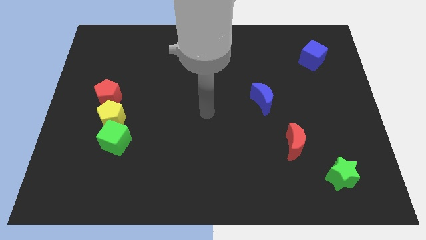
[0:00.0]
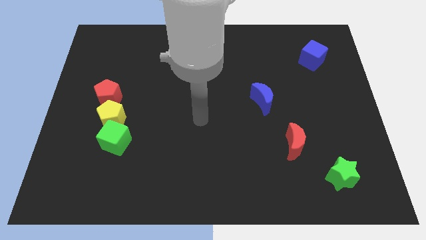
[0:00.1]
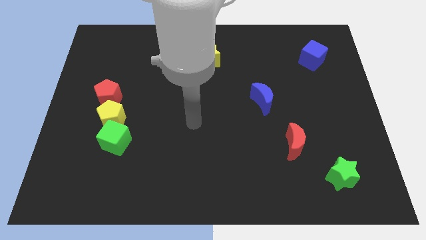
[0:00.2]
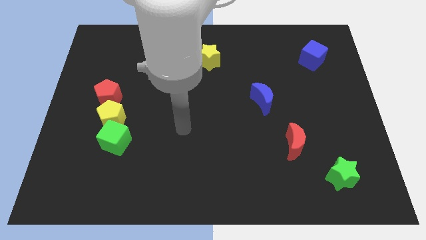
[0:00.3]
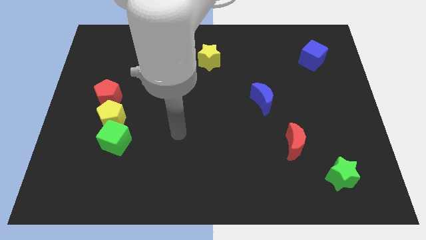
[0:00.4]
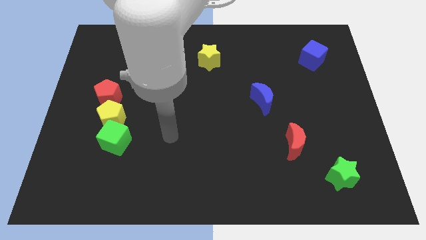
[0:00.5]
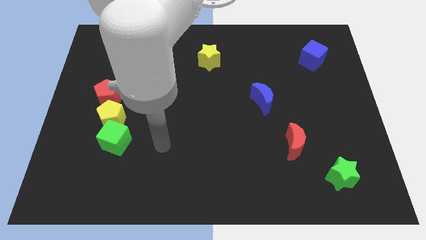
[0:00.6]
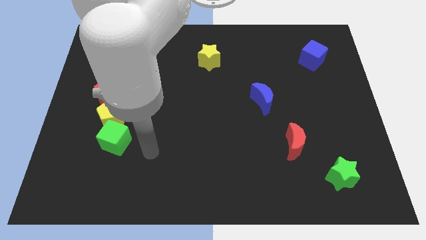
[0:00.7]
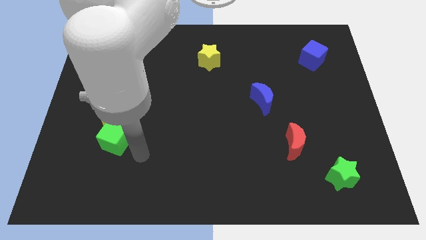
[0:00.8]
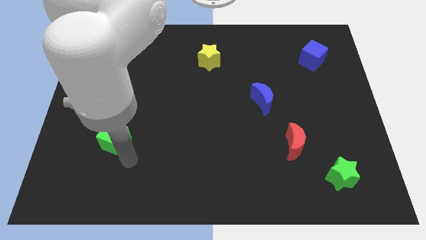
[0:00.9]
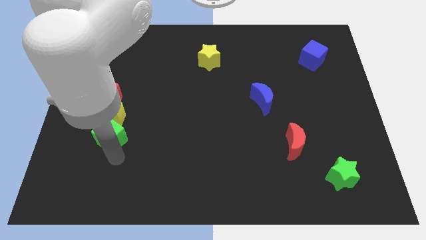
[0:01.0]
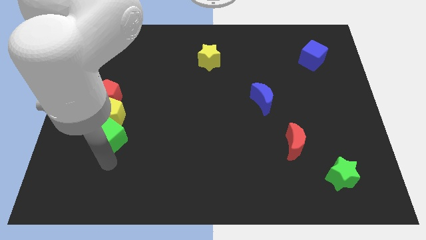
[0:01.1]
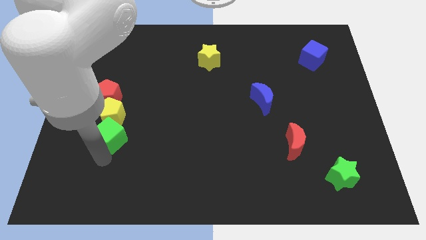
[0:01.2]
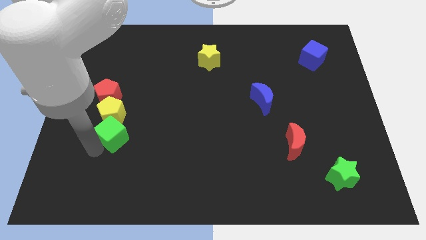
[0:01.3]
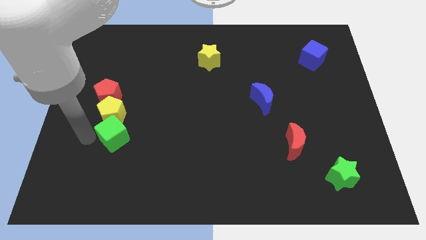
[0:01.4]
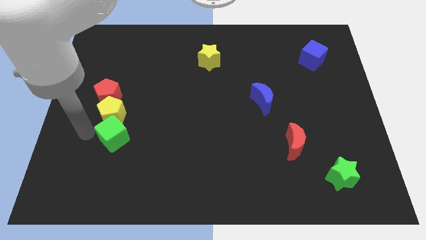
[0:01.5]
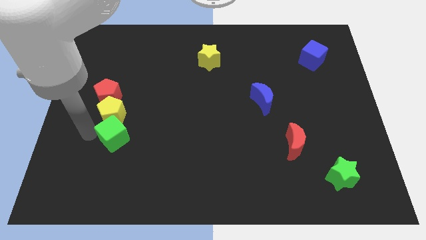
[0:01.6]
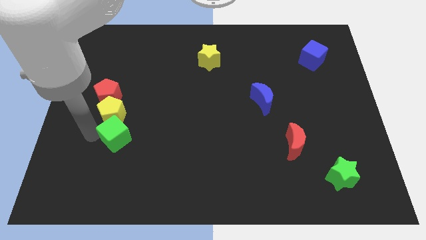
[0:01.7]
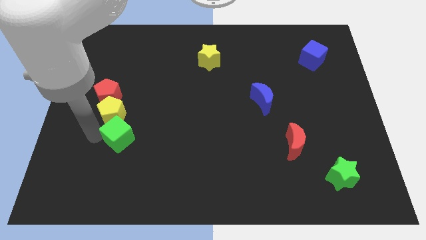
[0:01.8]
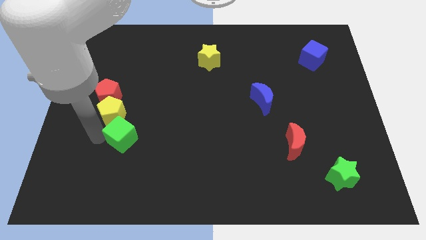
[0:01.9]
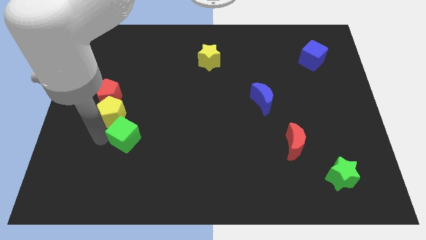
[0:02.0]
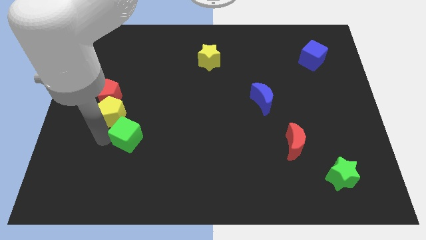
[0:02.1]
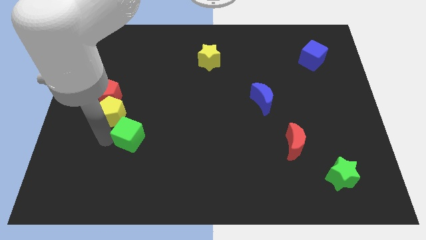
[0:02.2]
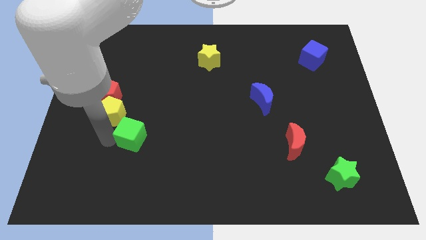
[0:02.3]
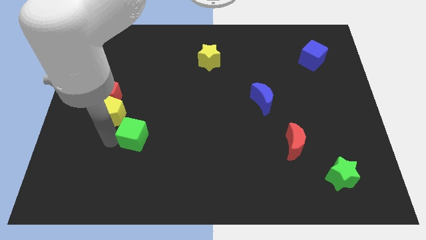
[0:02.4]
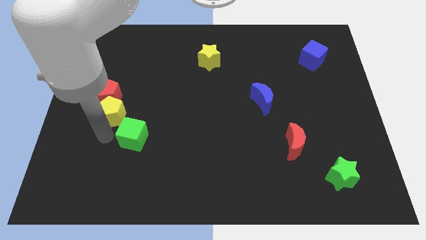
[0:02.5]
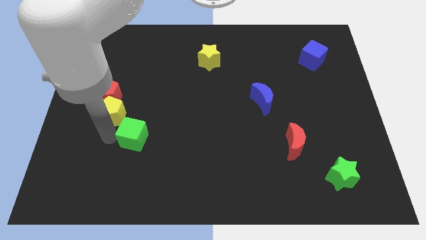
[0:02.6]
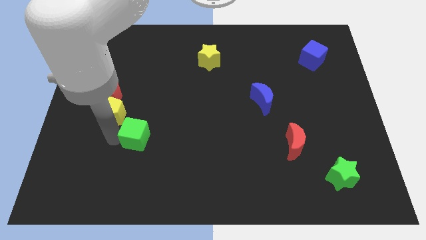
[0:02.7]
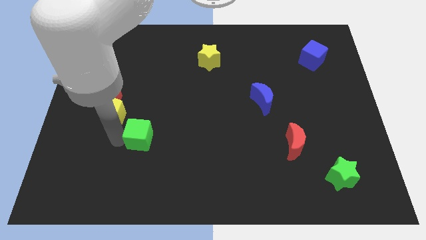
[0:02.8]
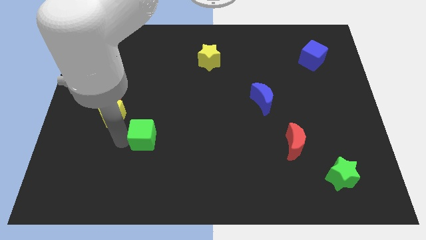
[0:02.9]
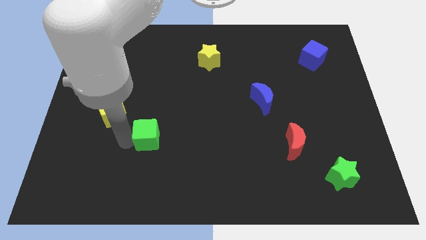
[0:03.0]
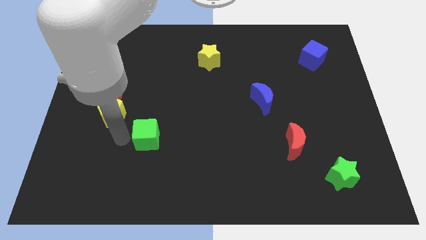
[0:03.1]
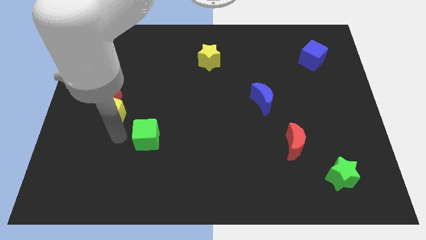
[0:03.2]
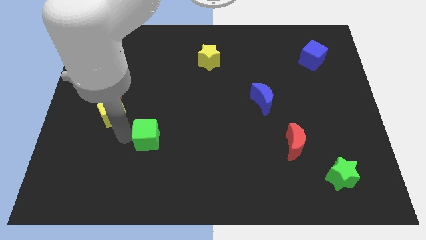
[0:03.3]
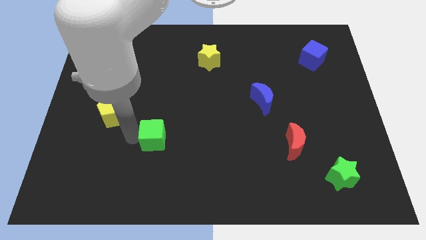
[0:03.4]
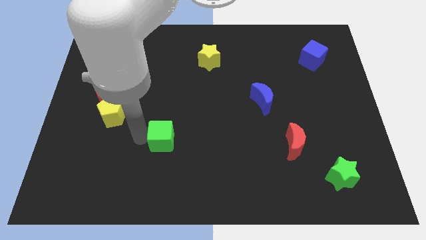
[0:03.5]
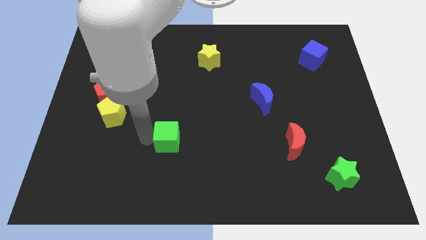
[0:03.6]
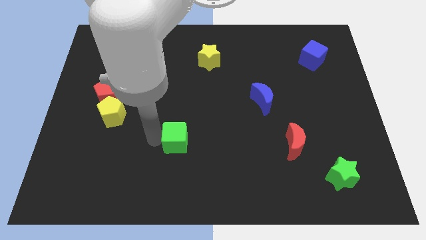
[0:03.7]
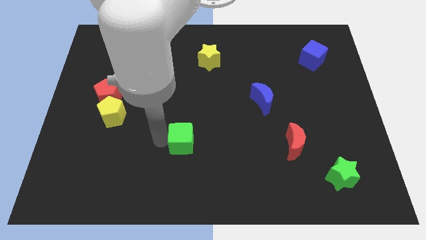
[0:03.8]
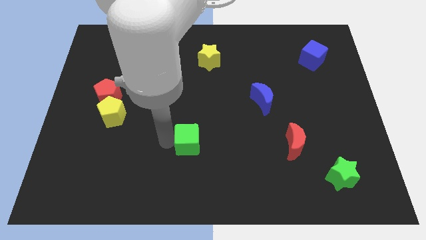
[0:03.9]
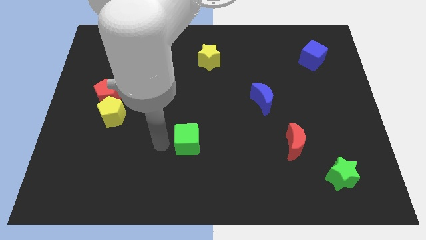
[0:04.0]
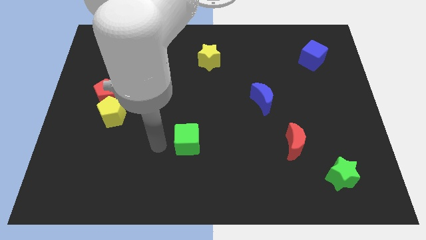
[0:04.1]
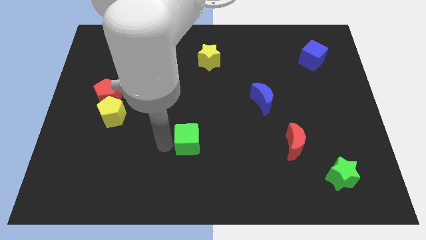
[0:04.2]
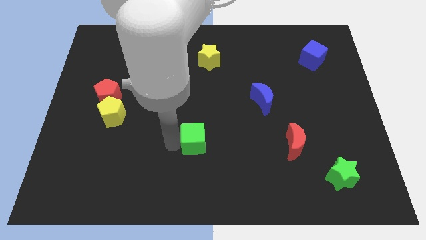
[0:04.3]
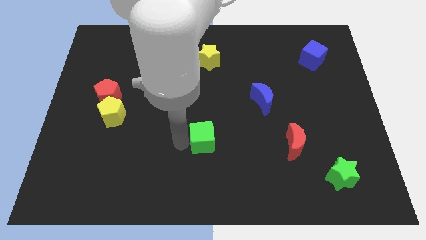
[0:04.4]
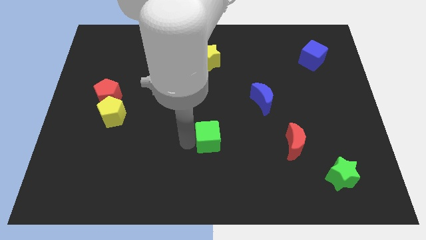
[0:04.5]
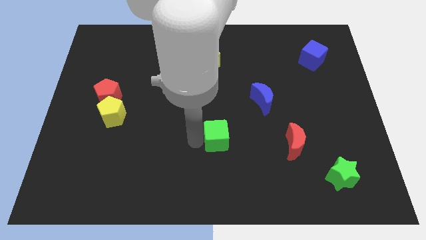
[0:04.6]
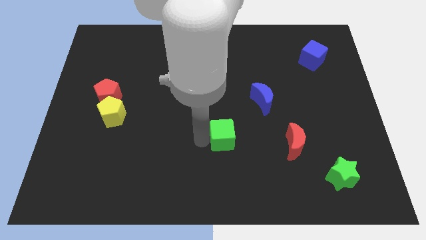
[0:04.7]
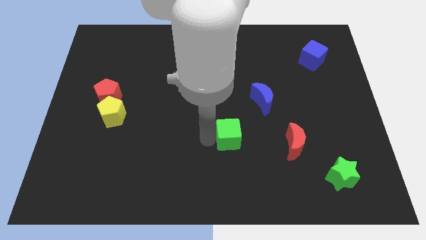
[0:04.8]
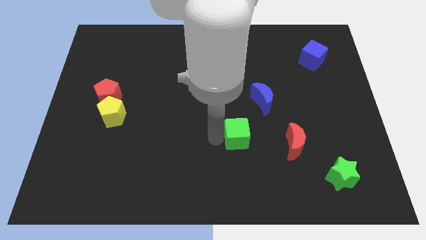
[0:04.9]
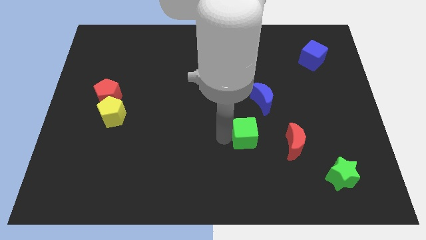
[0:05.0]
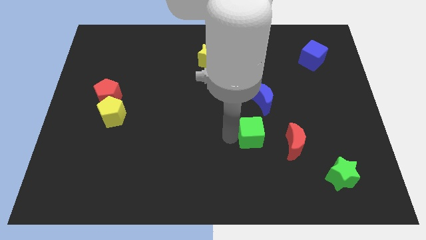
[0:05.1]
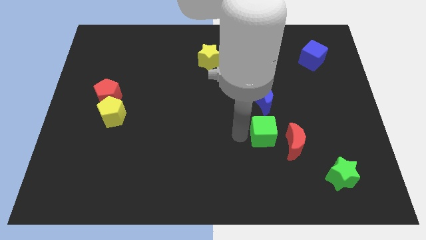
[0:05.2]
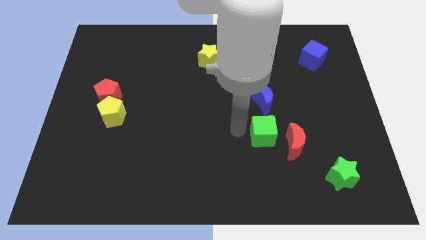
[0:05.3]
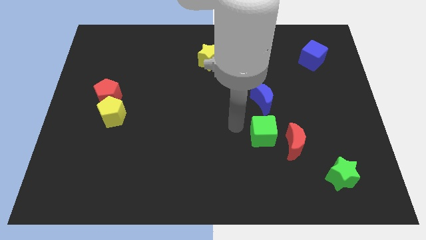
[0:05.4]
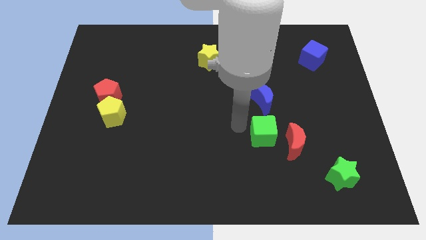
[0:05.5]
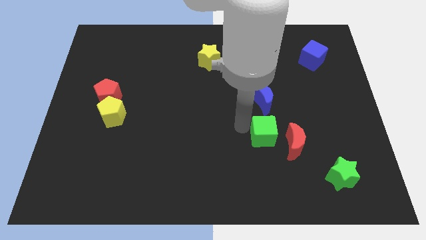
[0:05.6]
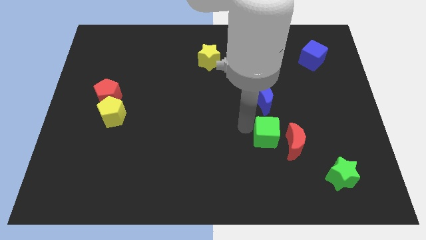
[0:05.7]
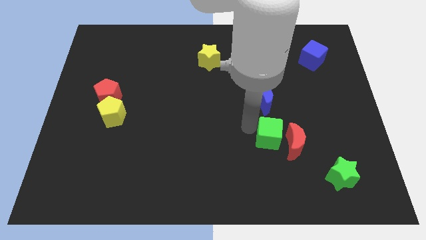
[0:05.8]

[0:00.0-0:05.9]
put the green cube towards the red moon
